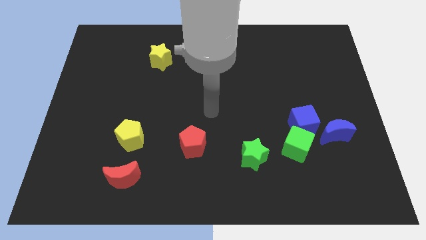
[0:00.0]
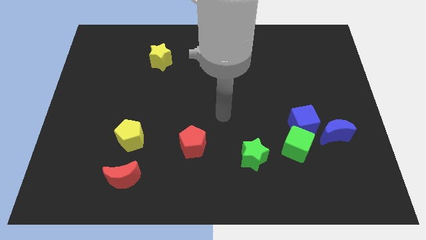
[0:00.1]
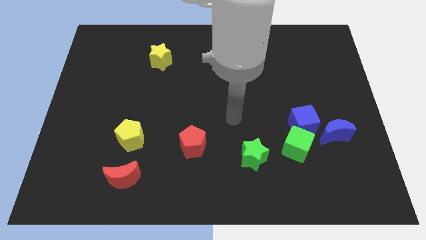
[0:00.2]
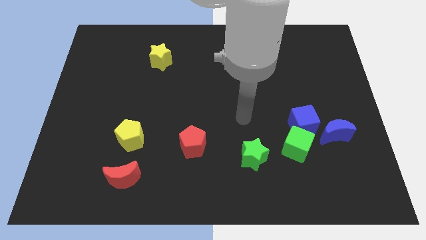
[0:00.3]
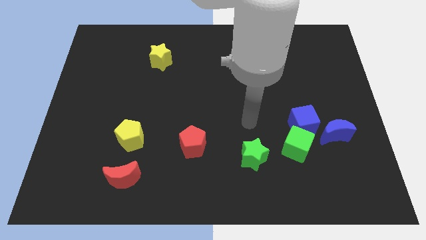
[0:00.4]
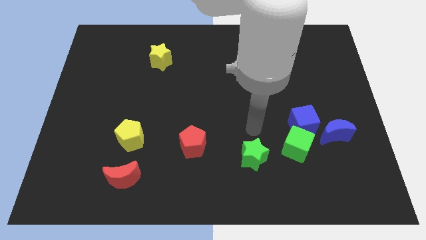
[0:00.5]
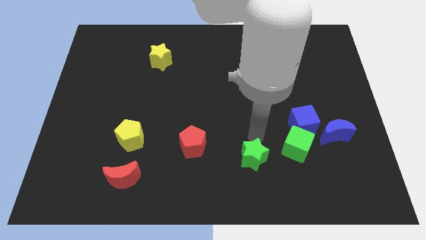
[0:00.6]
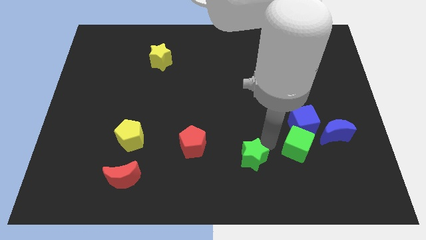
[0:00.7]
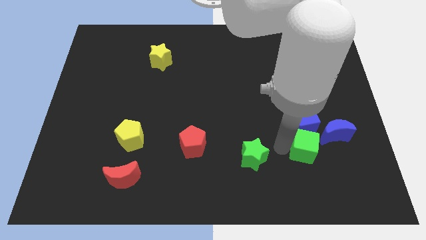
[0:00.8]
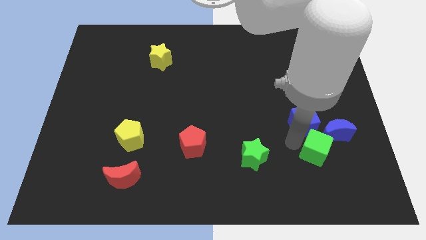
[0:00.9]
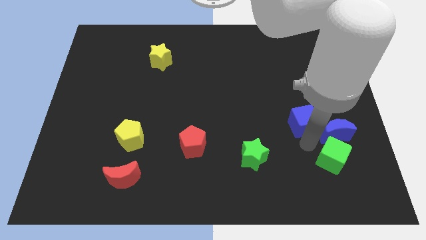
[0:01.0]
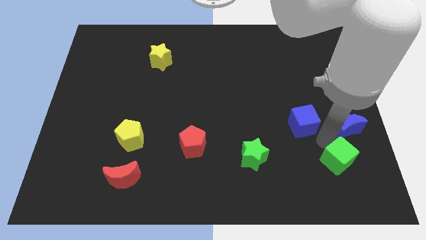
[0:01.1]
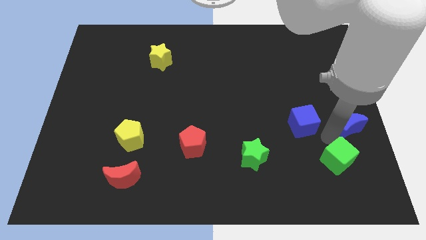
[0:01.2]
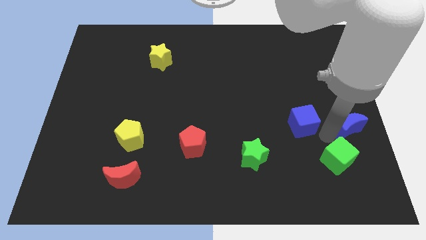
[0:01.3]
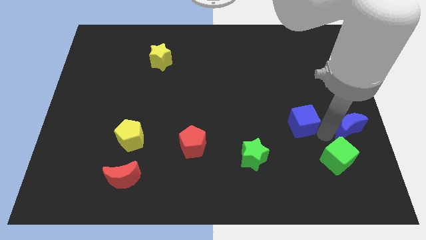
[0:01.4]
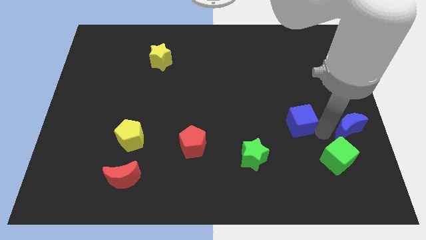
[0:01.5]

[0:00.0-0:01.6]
pull the blue cube apart from the green cube and blue moon

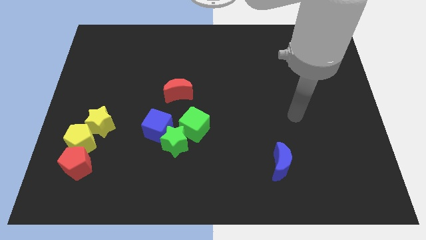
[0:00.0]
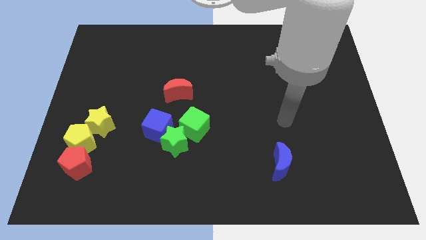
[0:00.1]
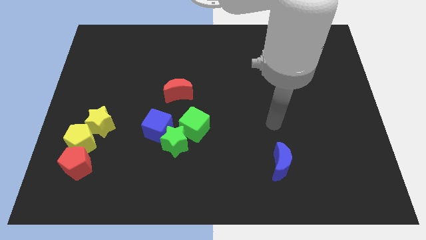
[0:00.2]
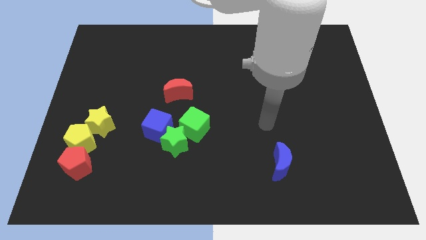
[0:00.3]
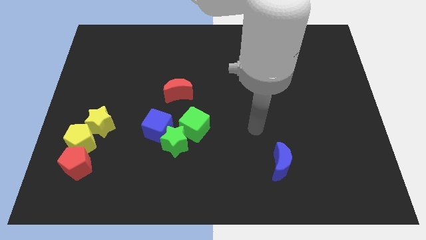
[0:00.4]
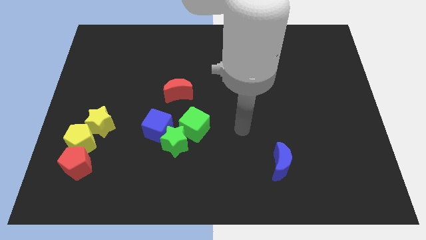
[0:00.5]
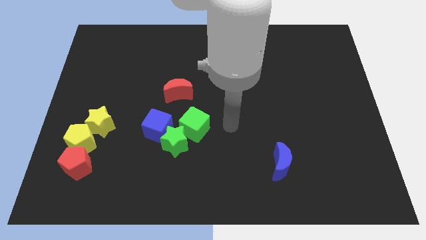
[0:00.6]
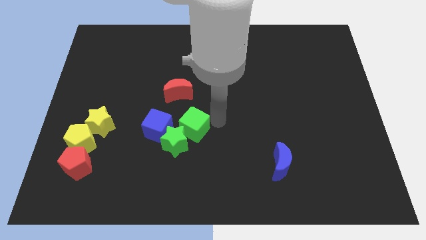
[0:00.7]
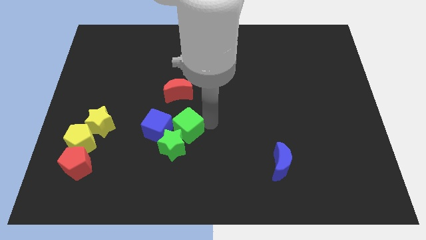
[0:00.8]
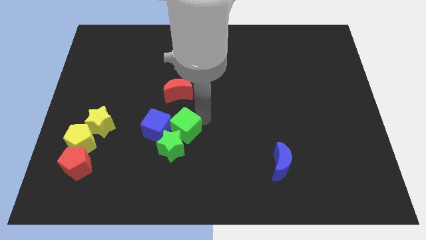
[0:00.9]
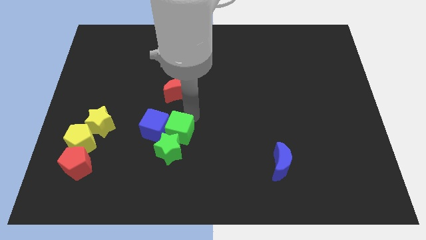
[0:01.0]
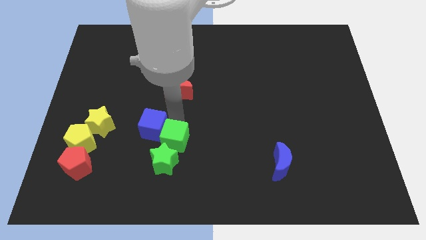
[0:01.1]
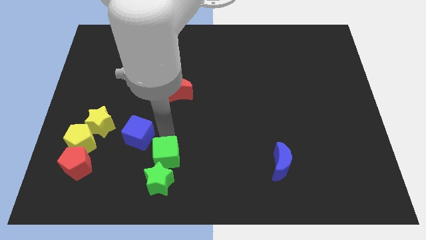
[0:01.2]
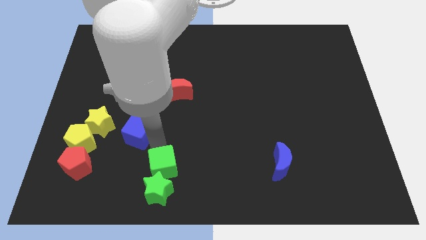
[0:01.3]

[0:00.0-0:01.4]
separate the green star from the blue cube and green cube

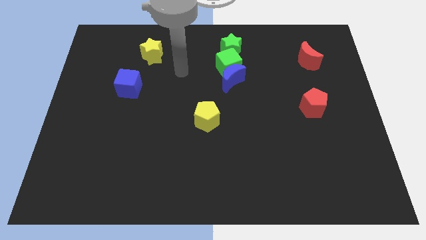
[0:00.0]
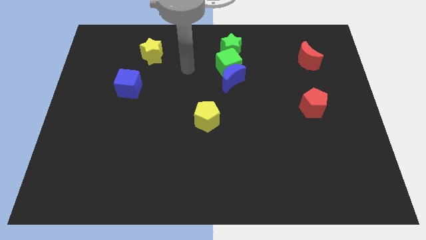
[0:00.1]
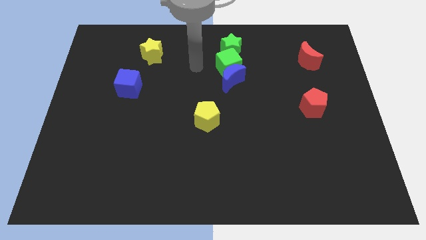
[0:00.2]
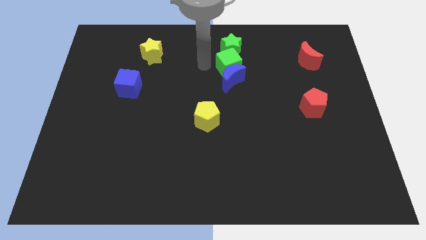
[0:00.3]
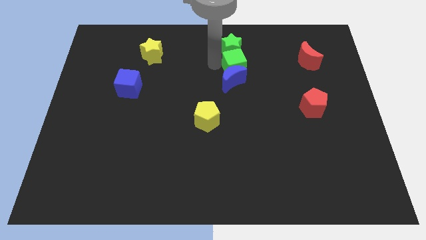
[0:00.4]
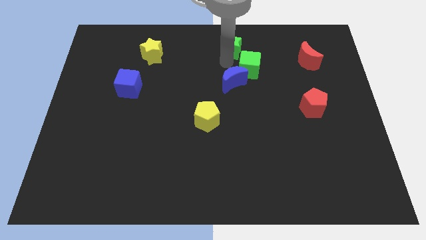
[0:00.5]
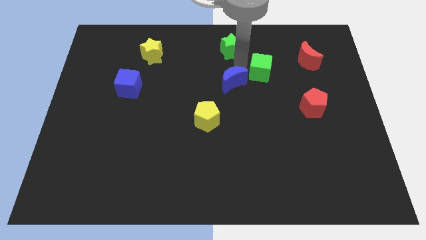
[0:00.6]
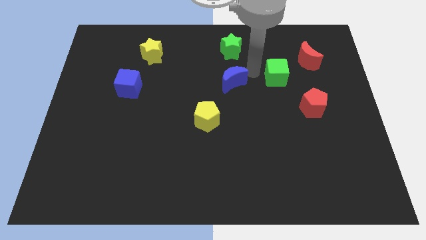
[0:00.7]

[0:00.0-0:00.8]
separate the blue moon from the green cube

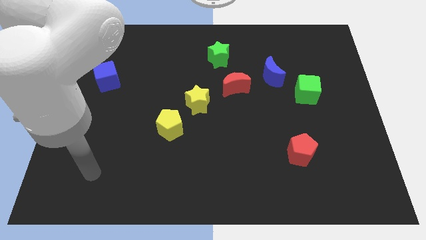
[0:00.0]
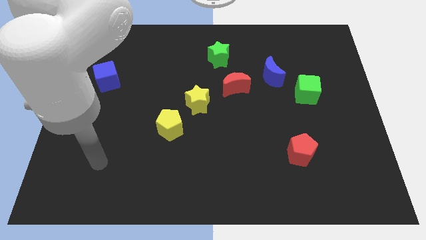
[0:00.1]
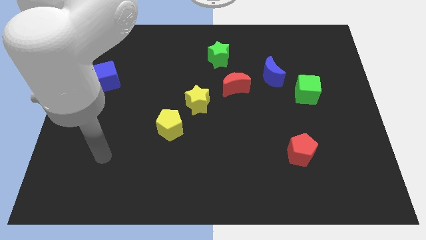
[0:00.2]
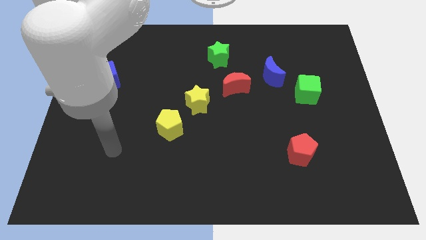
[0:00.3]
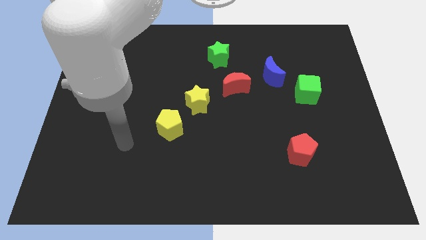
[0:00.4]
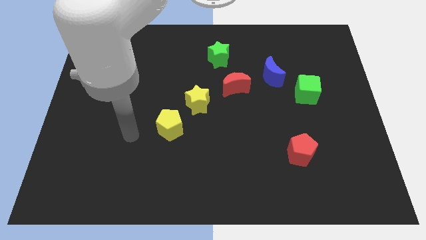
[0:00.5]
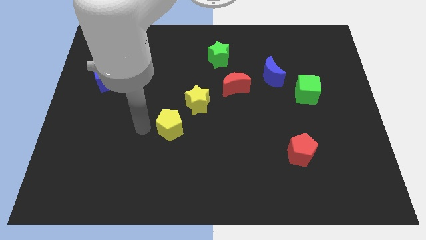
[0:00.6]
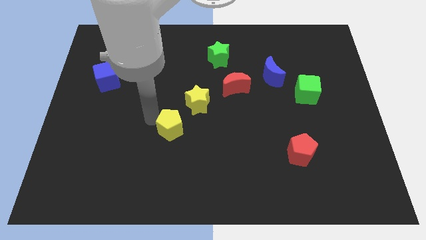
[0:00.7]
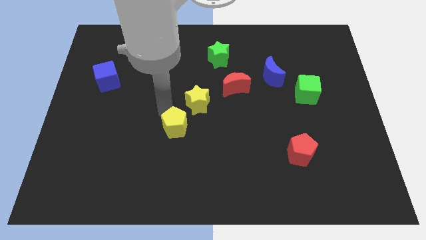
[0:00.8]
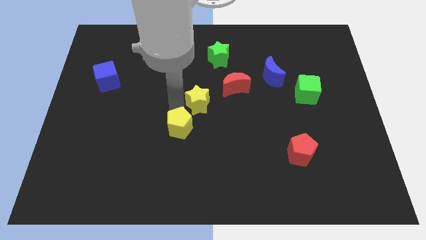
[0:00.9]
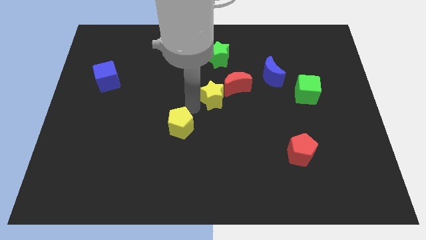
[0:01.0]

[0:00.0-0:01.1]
separate the yellow pentagon from the yellow star

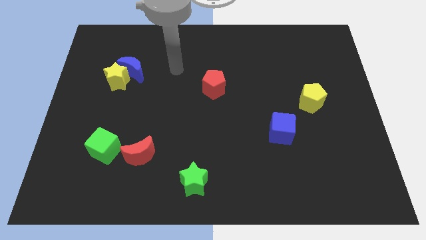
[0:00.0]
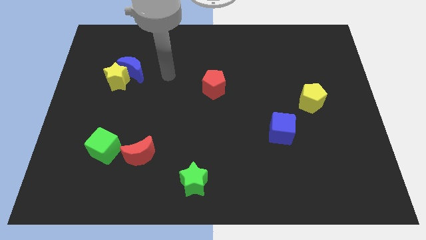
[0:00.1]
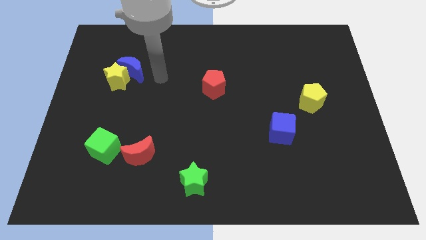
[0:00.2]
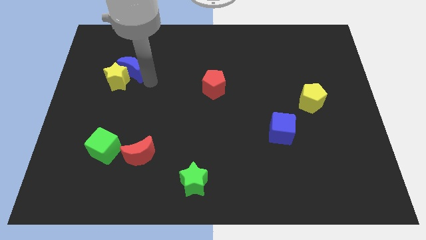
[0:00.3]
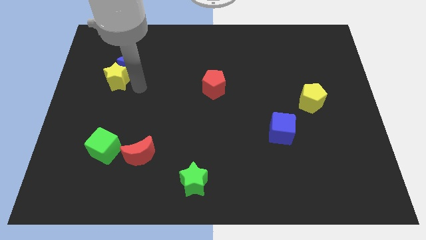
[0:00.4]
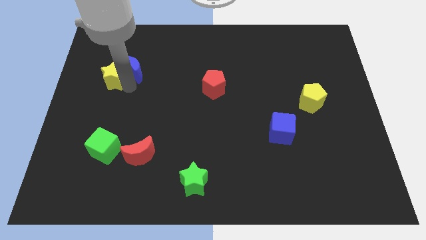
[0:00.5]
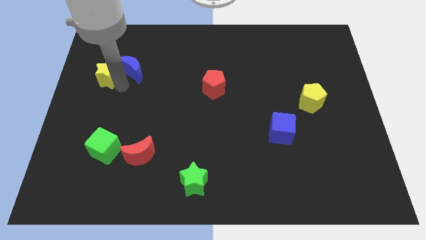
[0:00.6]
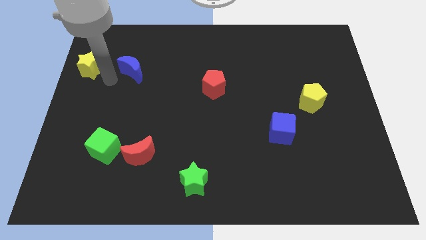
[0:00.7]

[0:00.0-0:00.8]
move the blue moon away from the yellow star

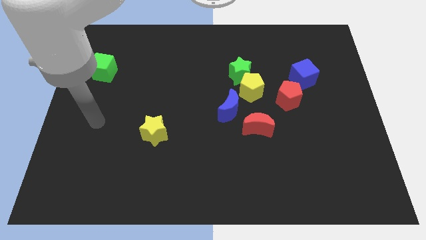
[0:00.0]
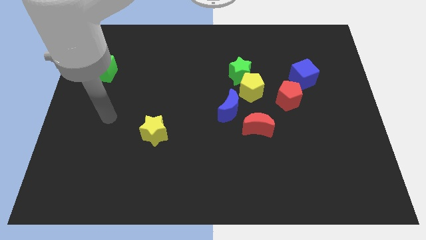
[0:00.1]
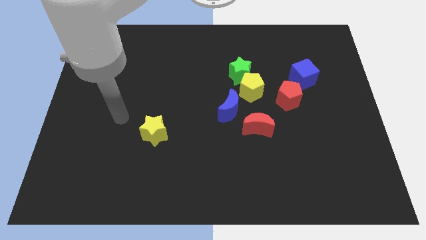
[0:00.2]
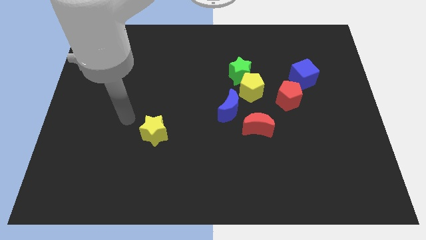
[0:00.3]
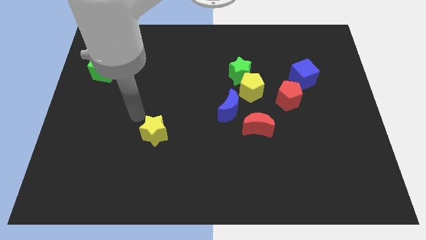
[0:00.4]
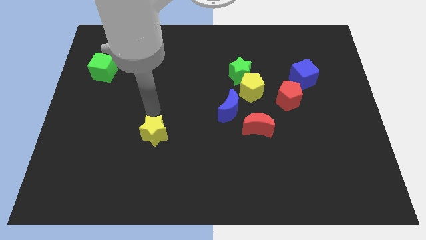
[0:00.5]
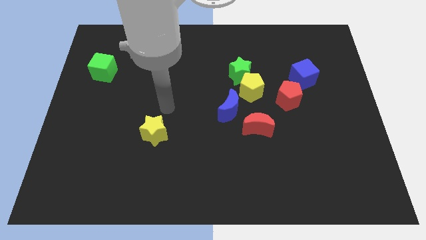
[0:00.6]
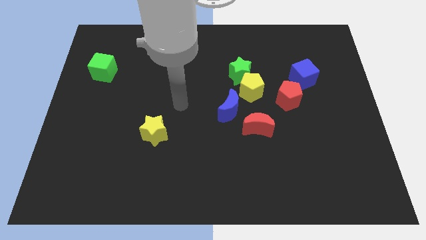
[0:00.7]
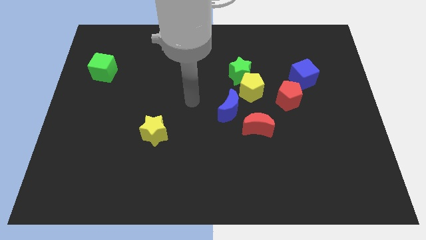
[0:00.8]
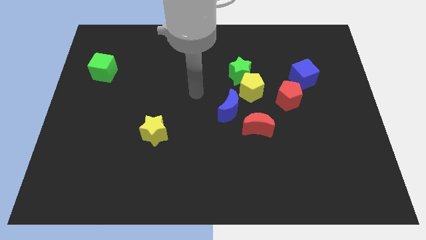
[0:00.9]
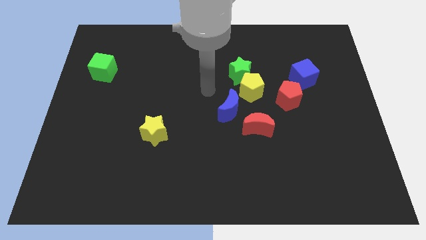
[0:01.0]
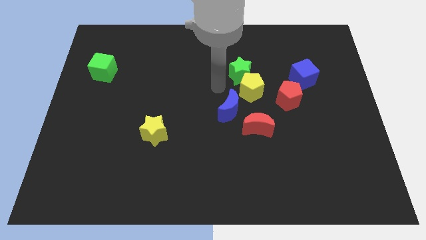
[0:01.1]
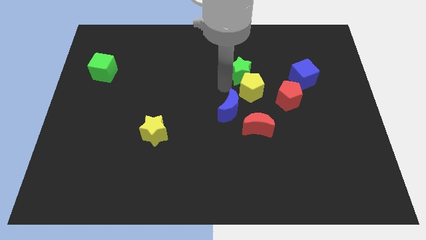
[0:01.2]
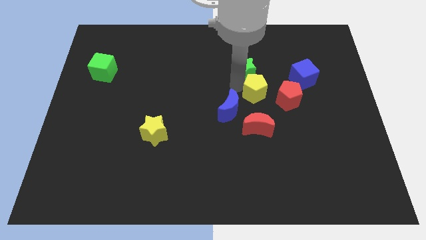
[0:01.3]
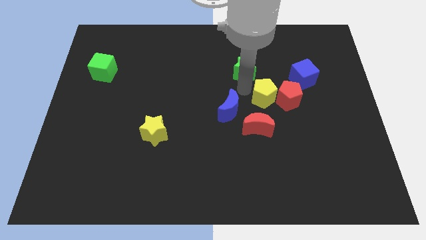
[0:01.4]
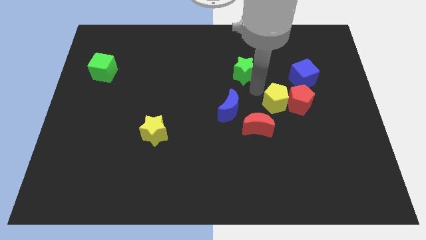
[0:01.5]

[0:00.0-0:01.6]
move the green star away from the yellow pentagon

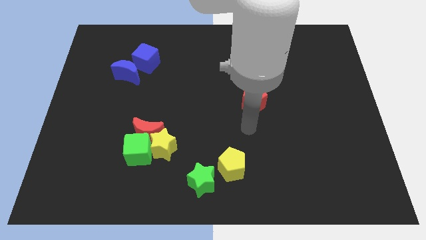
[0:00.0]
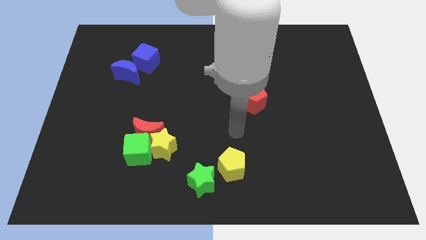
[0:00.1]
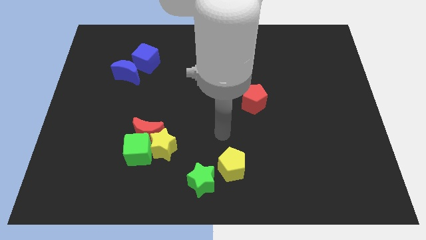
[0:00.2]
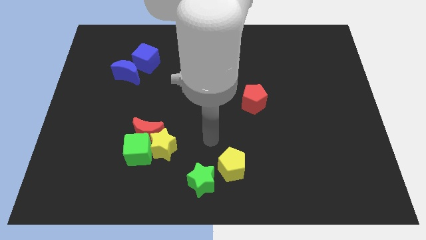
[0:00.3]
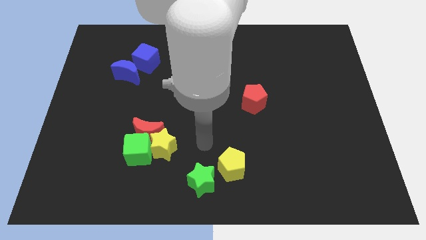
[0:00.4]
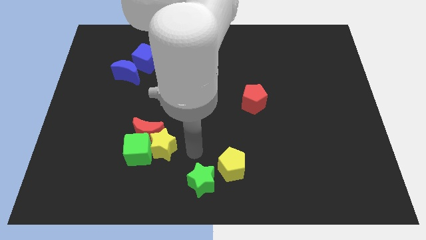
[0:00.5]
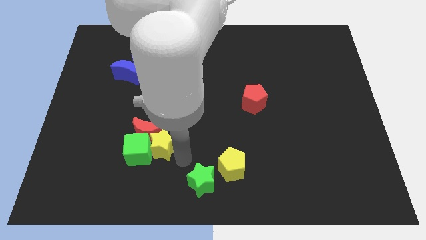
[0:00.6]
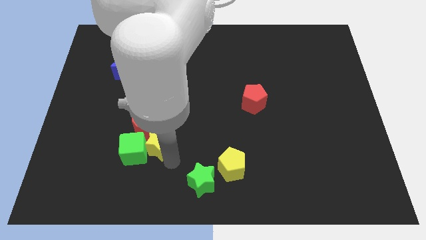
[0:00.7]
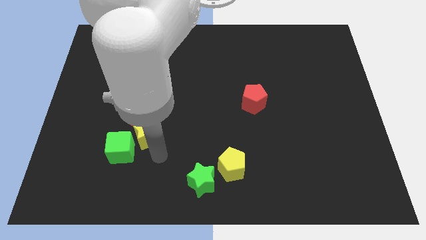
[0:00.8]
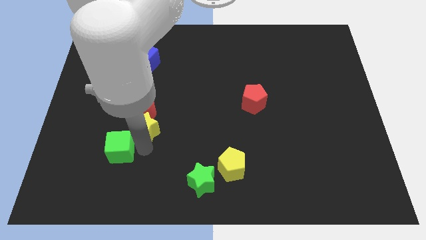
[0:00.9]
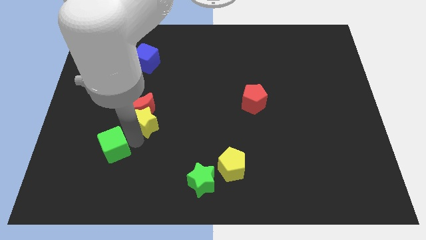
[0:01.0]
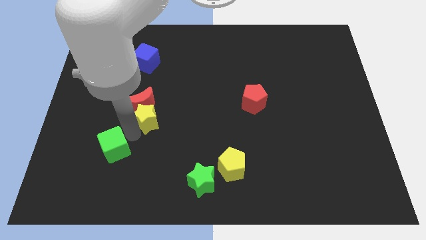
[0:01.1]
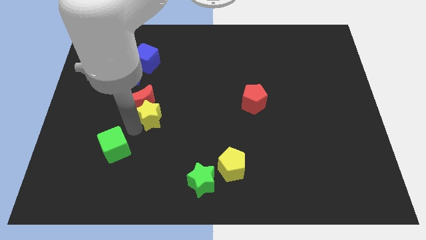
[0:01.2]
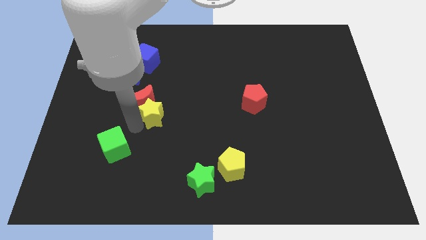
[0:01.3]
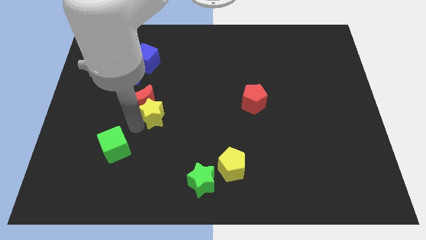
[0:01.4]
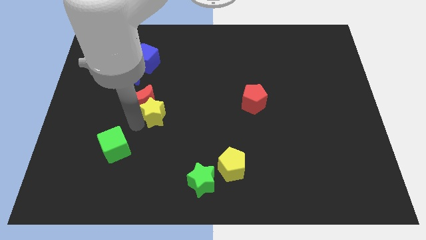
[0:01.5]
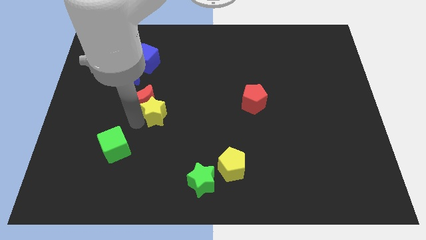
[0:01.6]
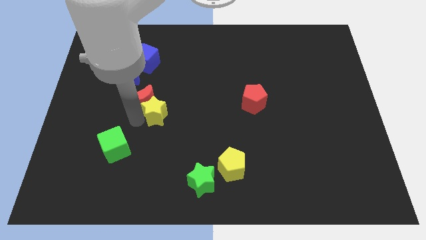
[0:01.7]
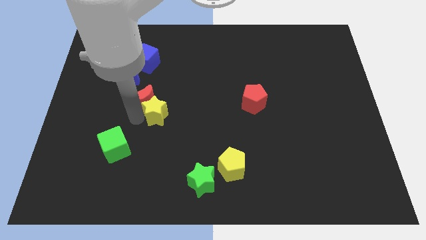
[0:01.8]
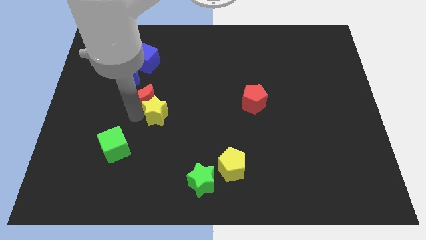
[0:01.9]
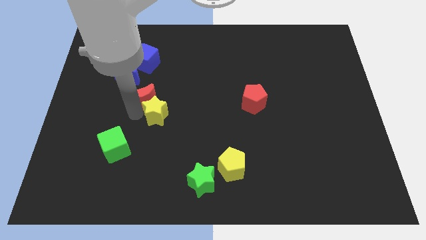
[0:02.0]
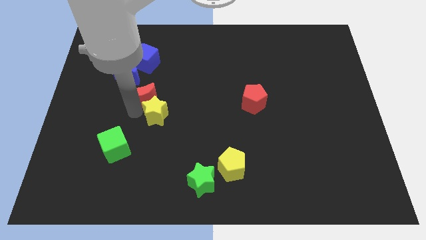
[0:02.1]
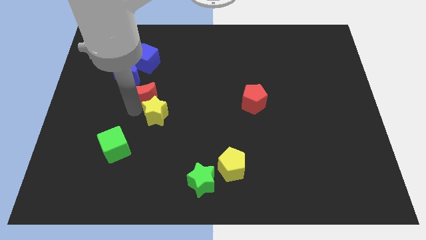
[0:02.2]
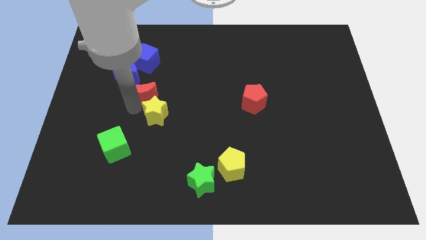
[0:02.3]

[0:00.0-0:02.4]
move the red moon away from the green cube and yellow star
